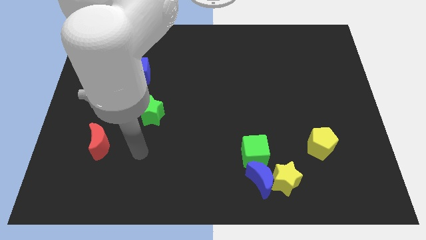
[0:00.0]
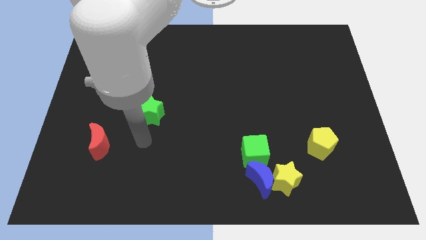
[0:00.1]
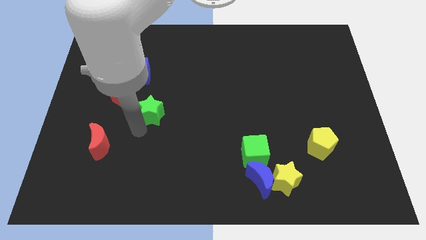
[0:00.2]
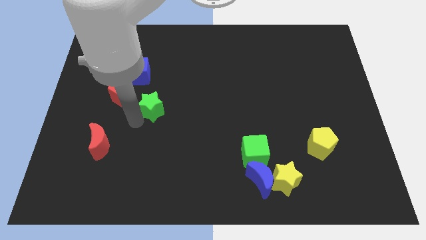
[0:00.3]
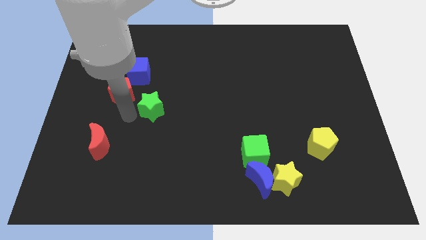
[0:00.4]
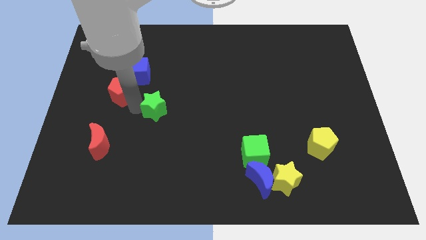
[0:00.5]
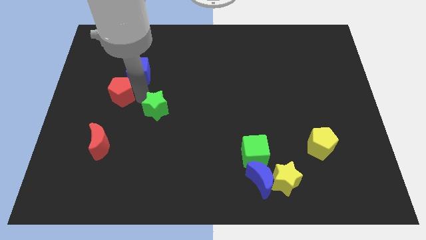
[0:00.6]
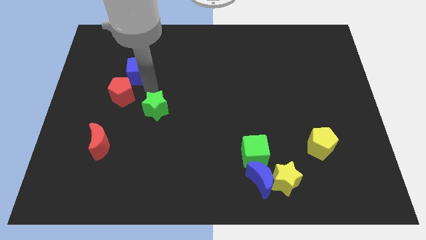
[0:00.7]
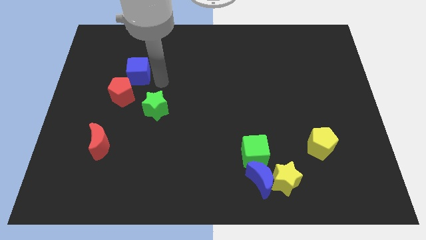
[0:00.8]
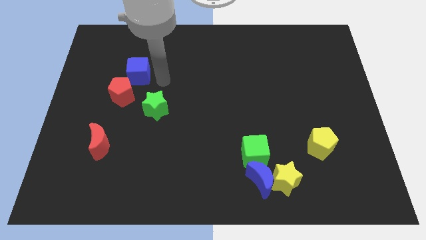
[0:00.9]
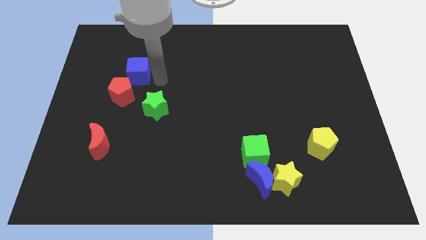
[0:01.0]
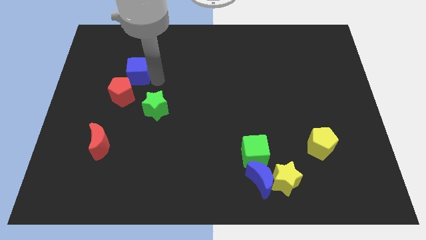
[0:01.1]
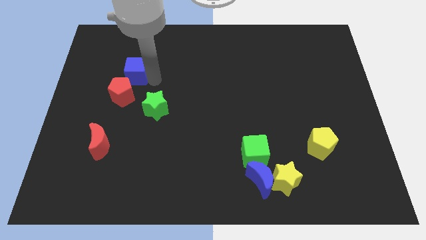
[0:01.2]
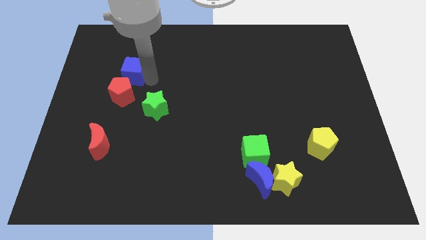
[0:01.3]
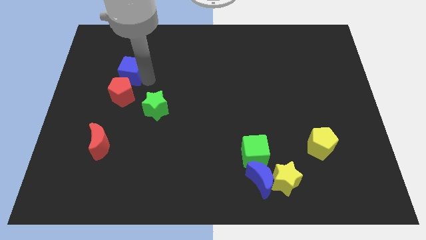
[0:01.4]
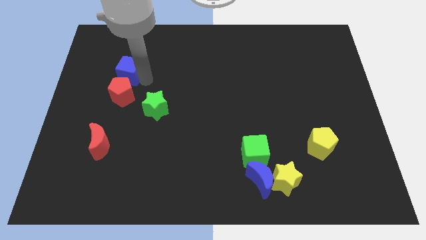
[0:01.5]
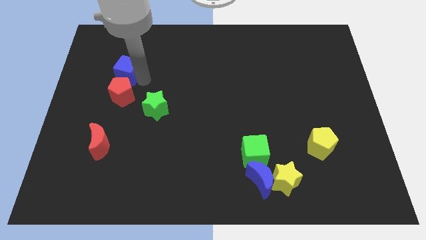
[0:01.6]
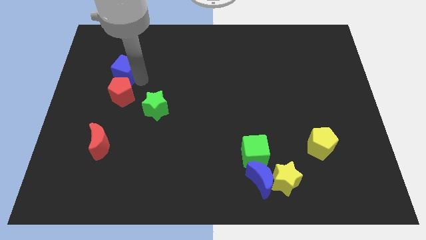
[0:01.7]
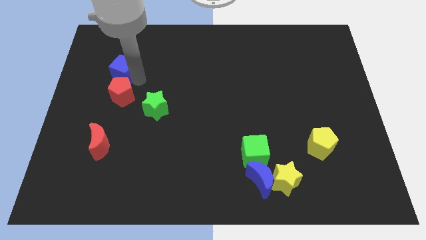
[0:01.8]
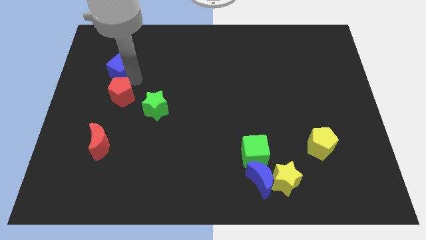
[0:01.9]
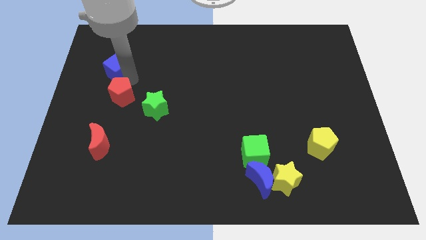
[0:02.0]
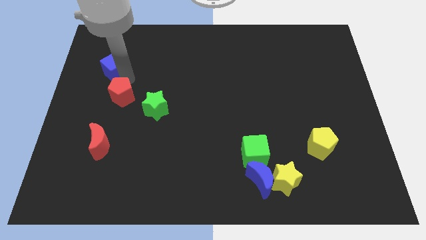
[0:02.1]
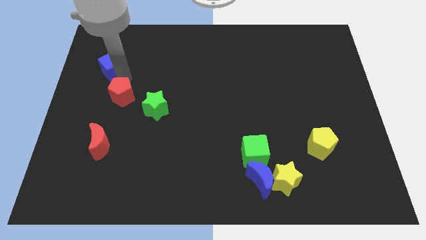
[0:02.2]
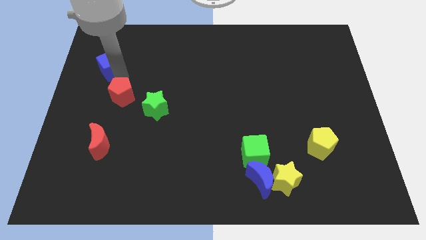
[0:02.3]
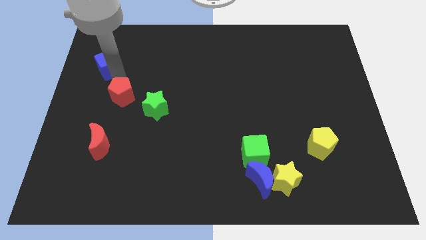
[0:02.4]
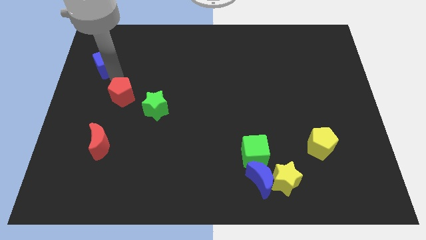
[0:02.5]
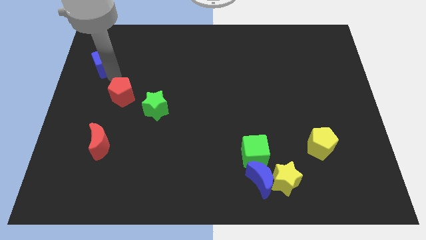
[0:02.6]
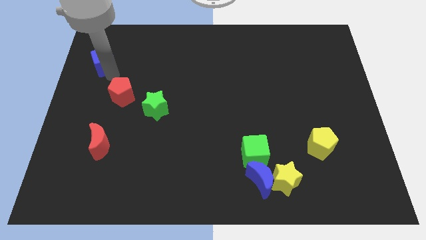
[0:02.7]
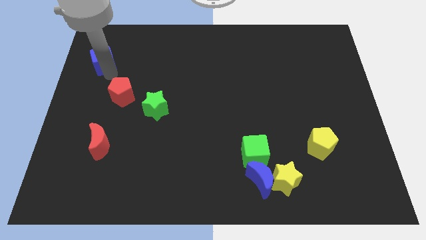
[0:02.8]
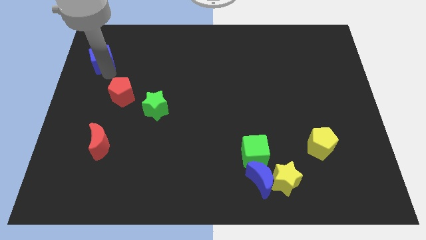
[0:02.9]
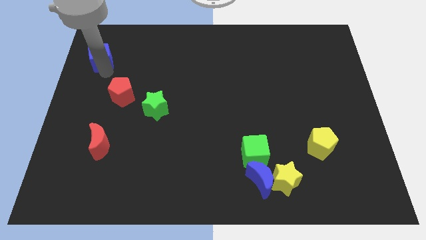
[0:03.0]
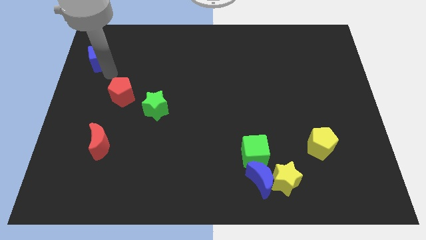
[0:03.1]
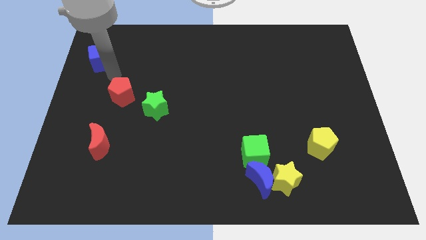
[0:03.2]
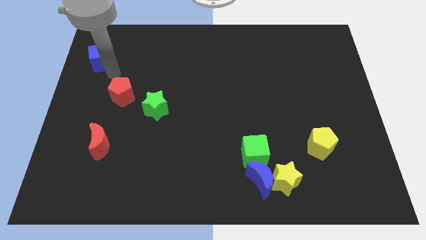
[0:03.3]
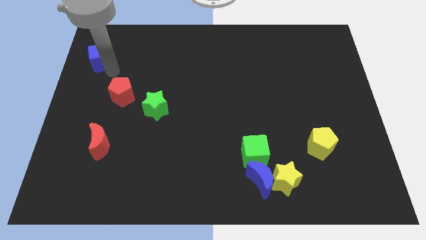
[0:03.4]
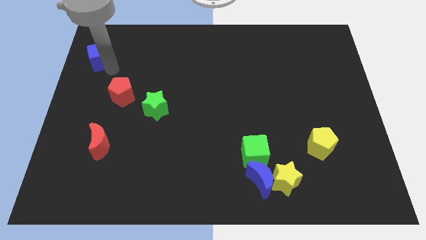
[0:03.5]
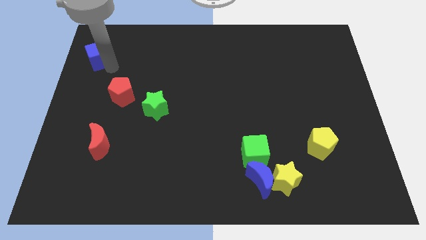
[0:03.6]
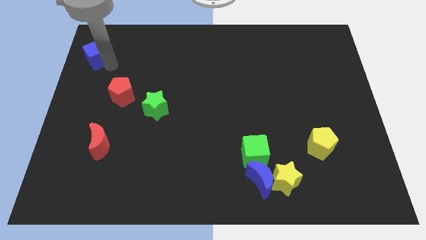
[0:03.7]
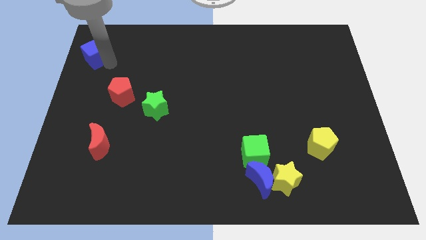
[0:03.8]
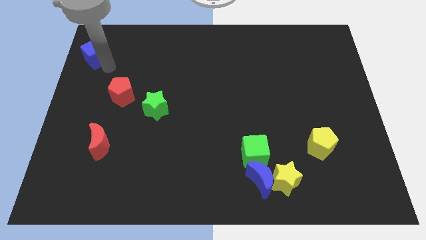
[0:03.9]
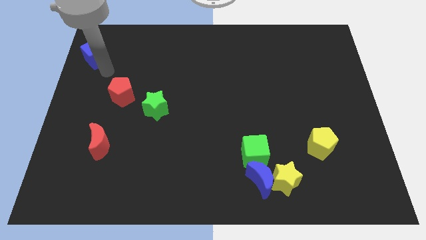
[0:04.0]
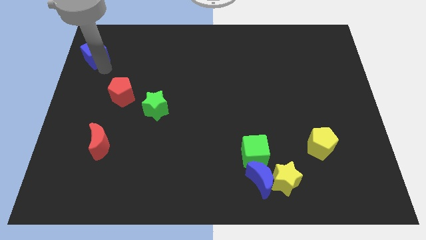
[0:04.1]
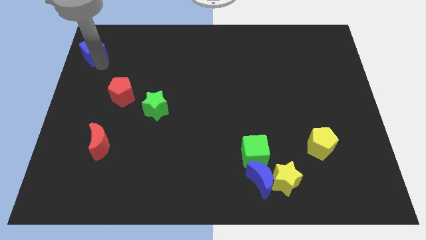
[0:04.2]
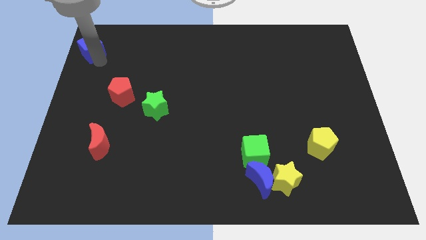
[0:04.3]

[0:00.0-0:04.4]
slide the blue cube to the upper left corner

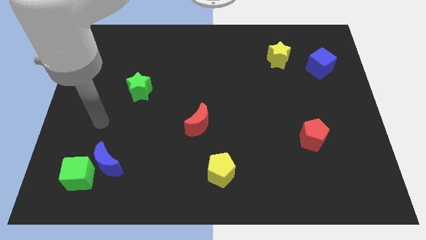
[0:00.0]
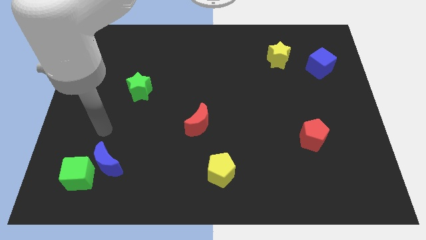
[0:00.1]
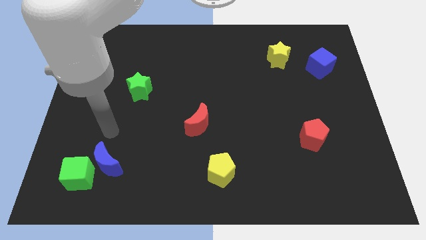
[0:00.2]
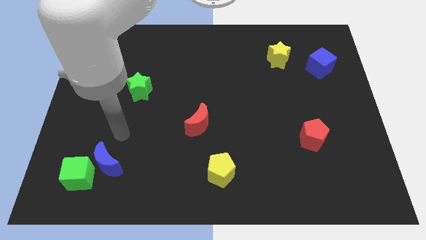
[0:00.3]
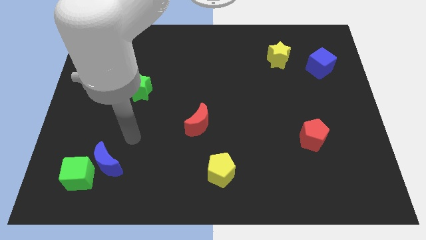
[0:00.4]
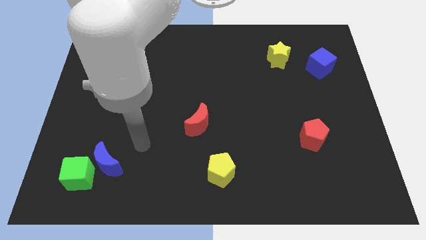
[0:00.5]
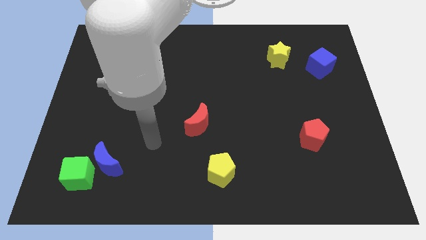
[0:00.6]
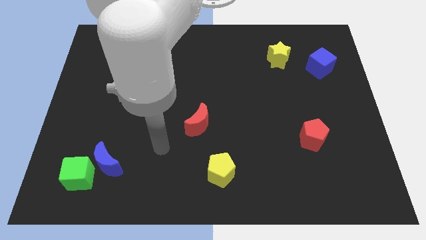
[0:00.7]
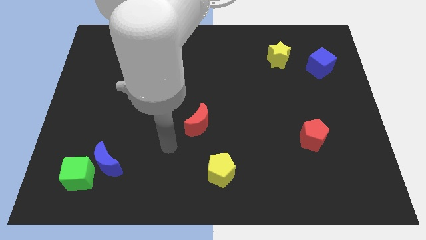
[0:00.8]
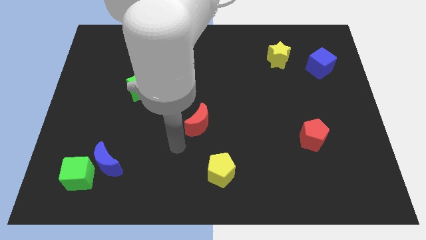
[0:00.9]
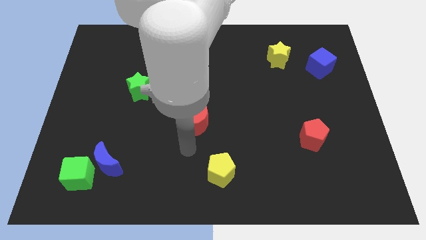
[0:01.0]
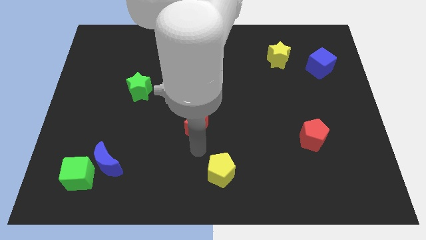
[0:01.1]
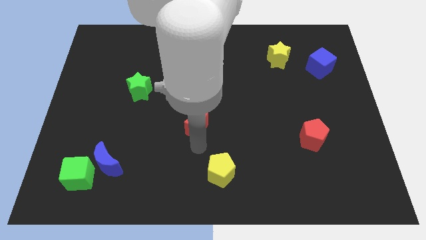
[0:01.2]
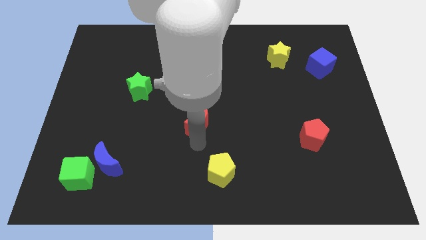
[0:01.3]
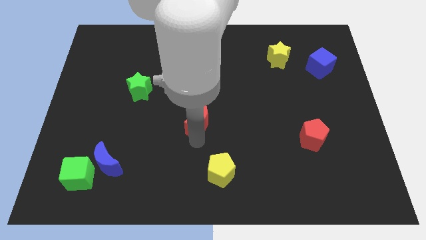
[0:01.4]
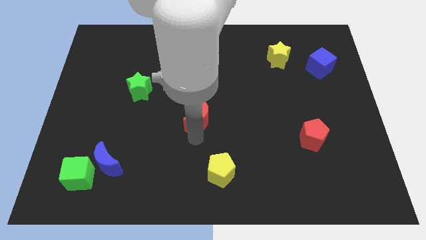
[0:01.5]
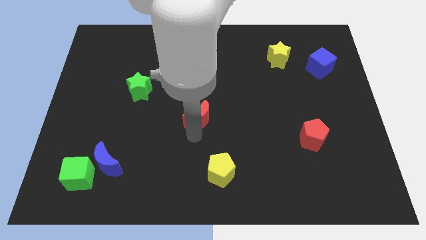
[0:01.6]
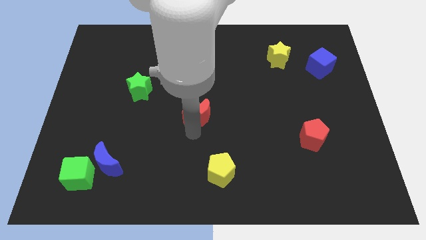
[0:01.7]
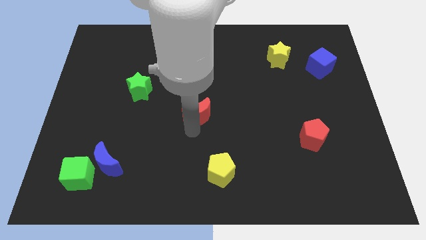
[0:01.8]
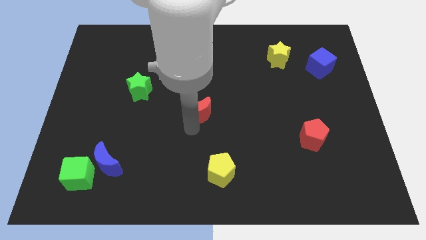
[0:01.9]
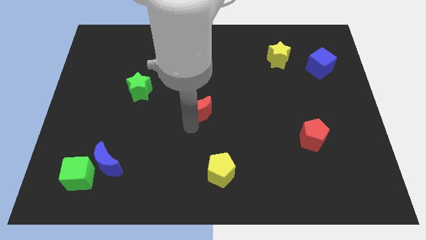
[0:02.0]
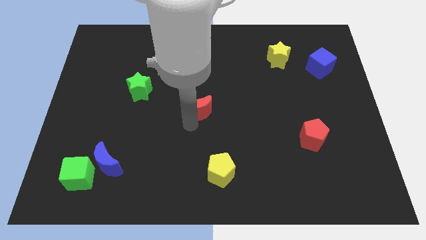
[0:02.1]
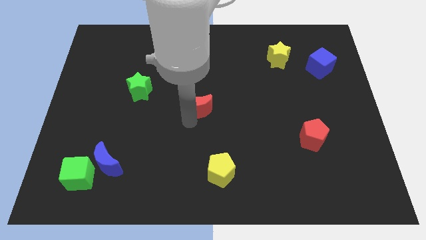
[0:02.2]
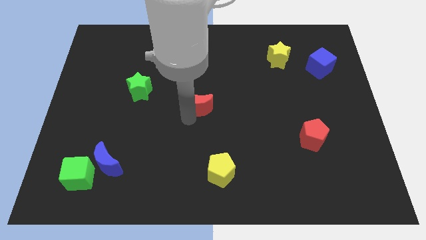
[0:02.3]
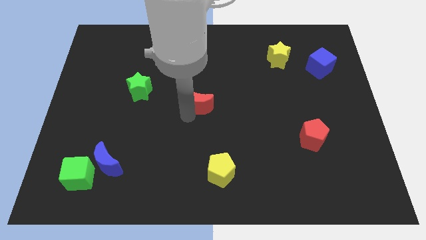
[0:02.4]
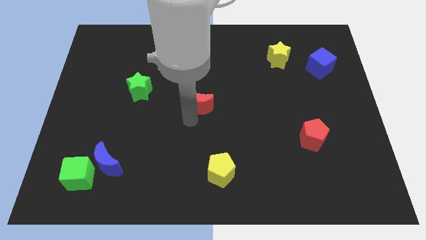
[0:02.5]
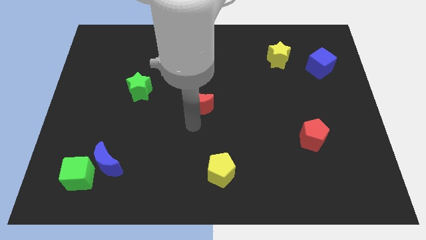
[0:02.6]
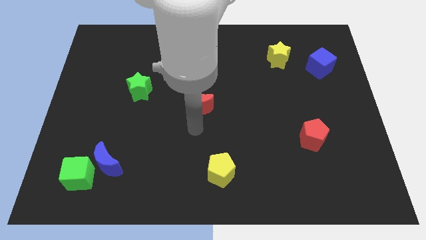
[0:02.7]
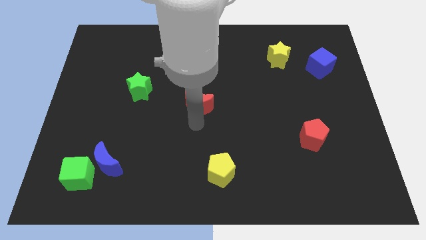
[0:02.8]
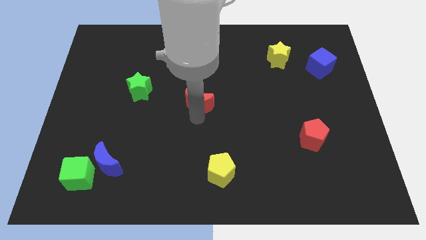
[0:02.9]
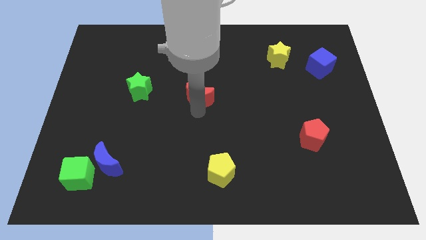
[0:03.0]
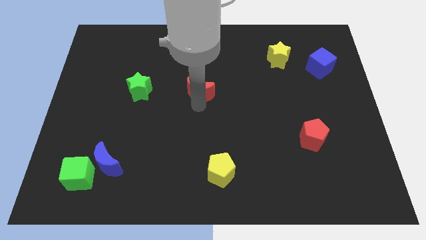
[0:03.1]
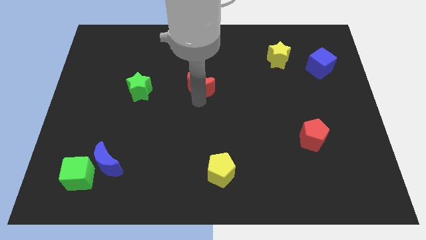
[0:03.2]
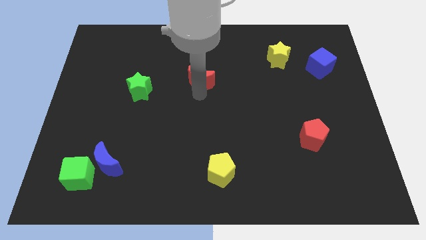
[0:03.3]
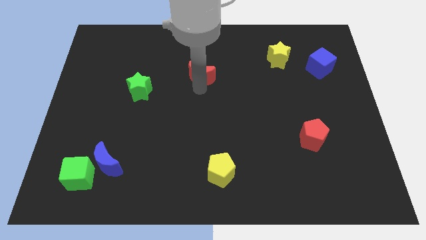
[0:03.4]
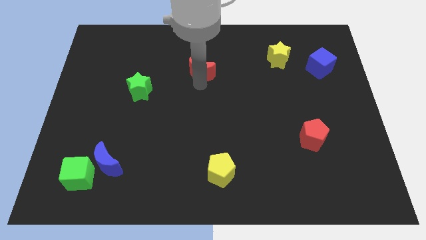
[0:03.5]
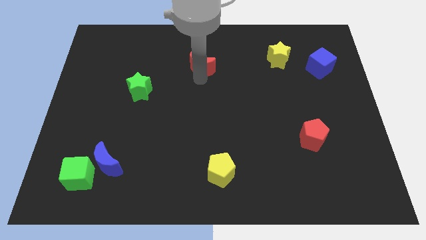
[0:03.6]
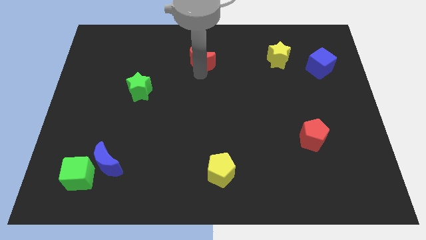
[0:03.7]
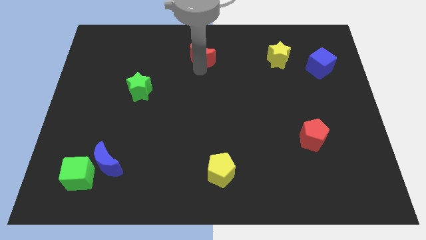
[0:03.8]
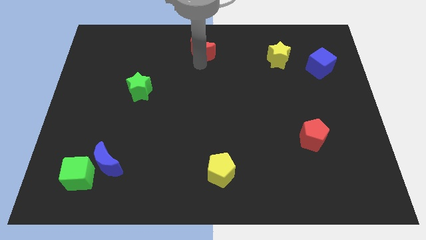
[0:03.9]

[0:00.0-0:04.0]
move the red moon to the towards your base
